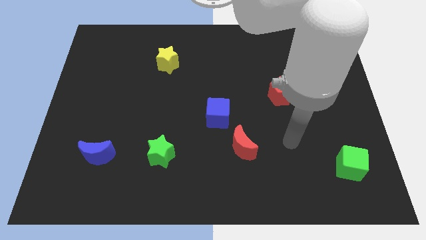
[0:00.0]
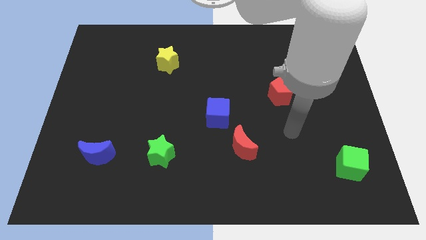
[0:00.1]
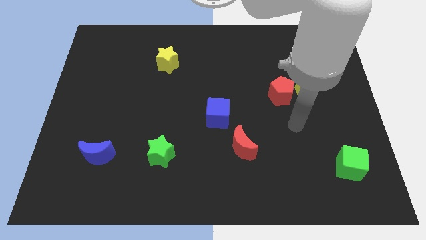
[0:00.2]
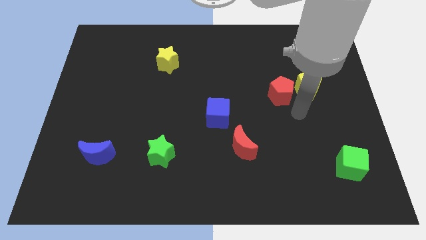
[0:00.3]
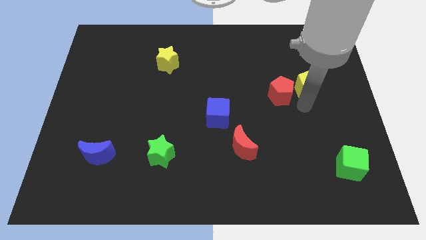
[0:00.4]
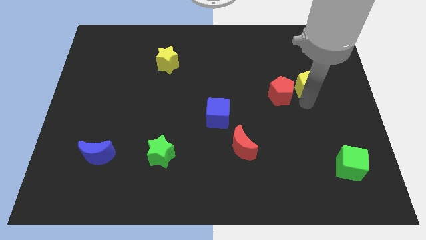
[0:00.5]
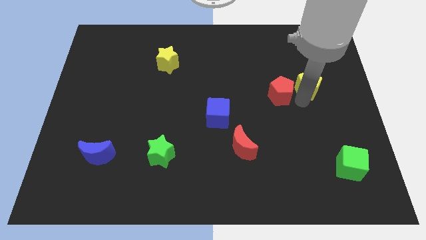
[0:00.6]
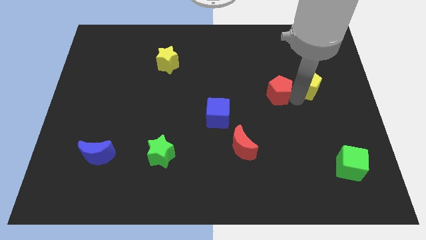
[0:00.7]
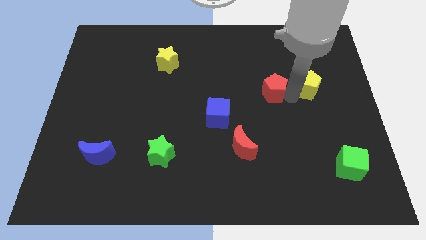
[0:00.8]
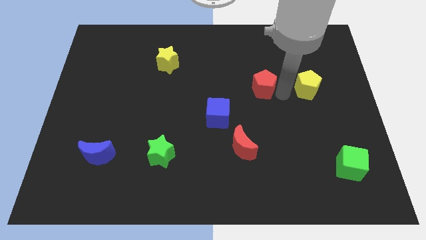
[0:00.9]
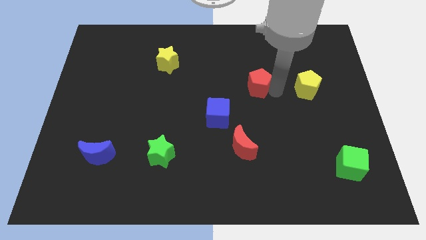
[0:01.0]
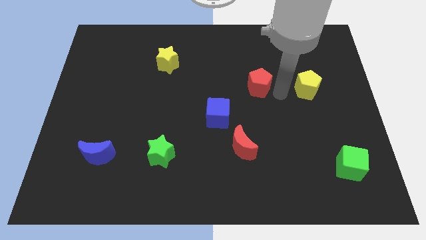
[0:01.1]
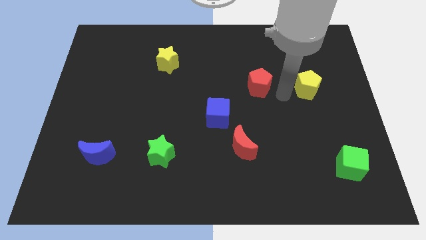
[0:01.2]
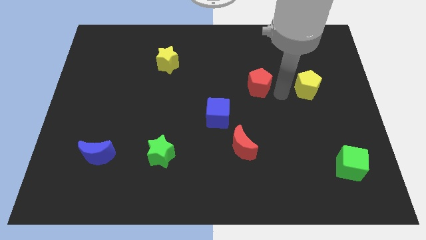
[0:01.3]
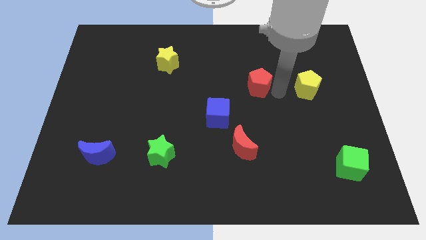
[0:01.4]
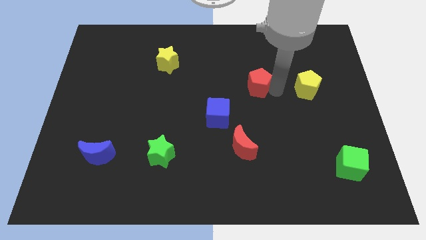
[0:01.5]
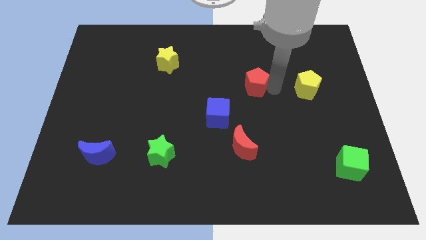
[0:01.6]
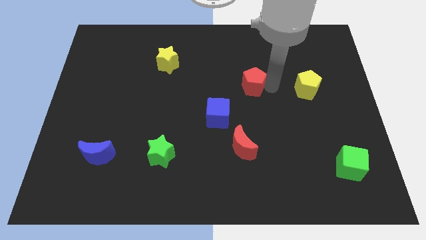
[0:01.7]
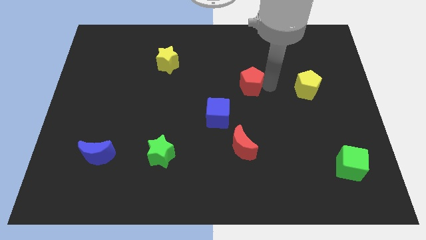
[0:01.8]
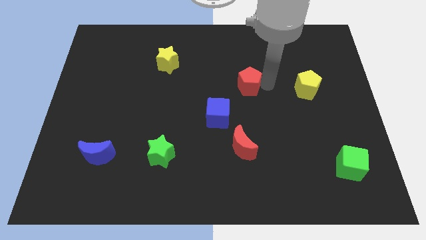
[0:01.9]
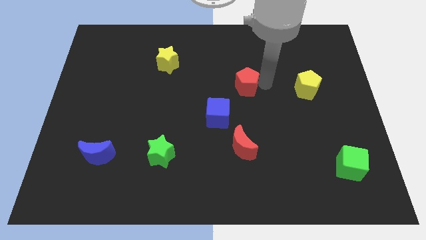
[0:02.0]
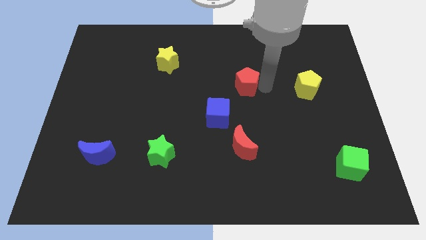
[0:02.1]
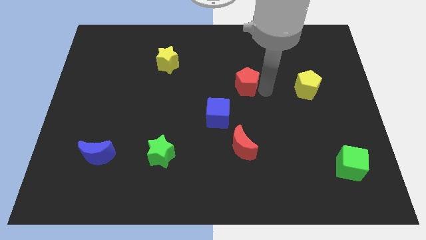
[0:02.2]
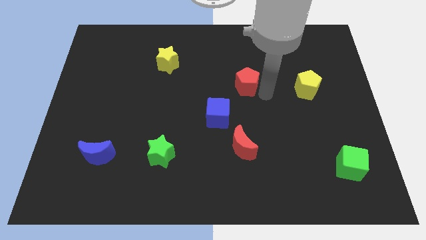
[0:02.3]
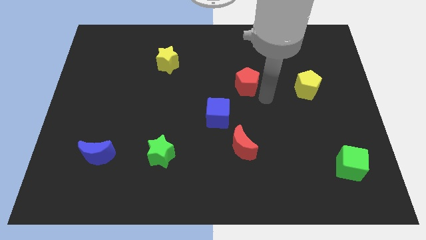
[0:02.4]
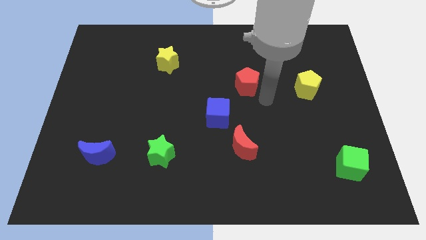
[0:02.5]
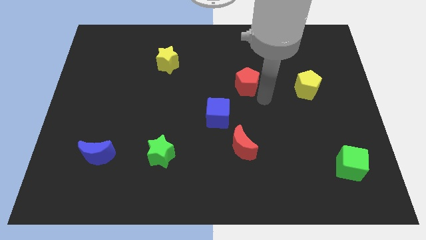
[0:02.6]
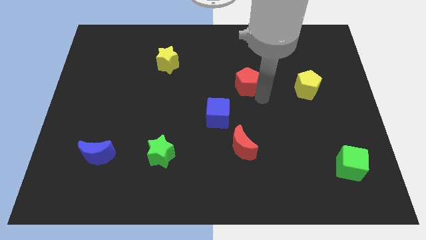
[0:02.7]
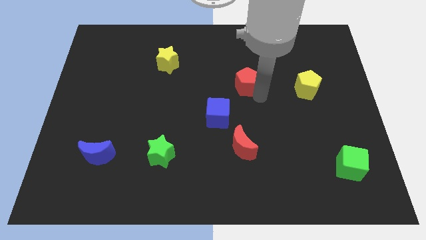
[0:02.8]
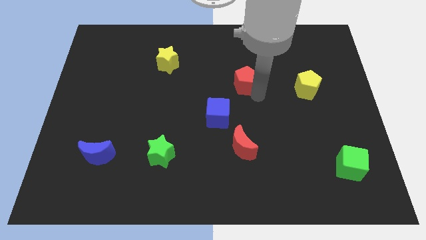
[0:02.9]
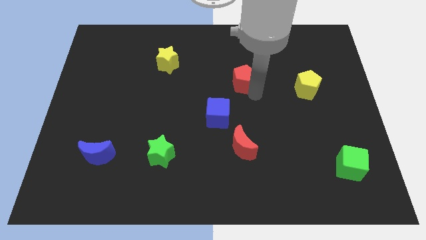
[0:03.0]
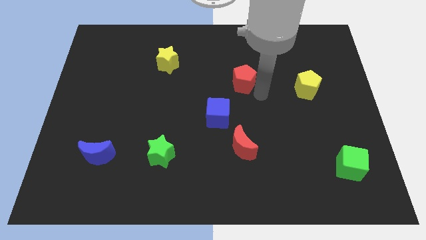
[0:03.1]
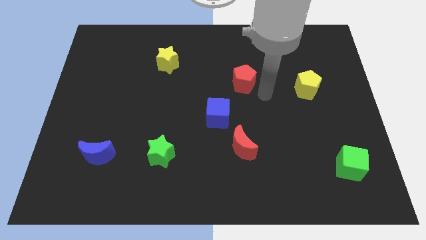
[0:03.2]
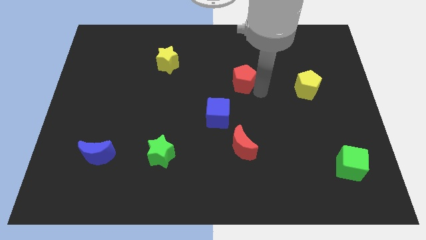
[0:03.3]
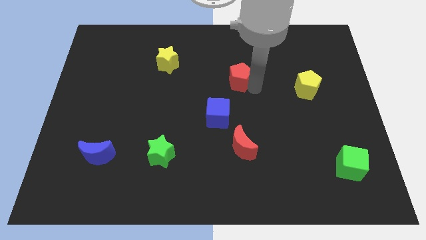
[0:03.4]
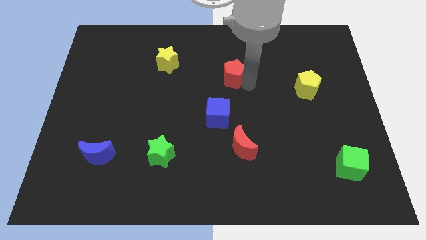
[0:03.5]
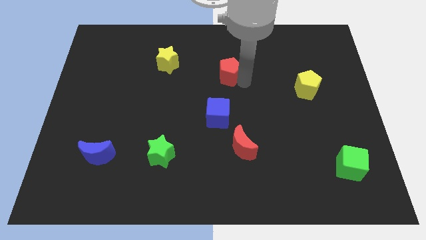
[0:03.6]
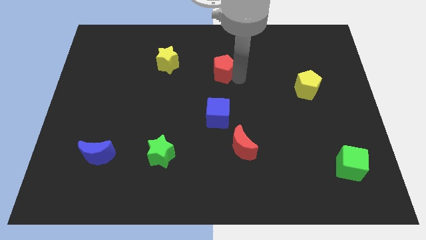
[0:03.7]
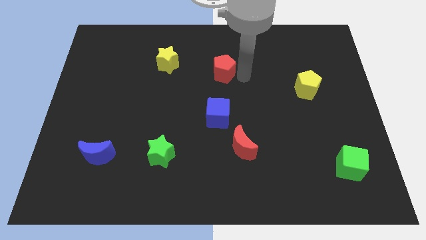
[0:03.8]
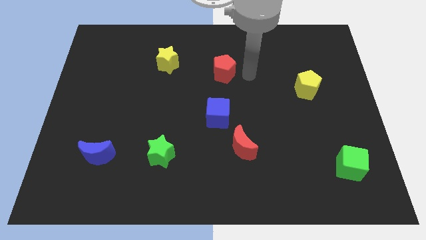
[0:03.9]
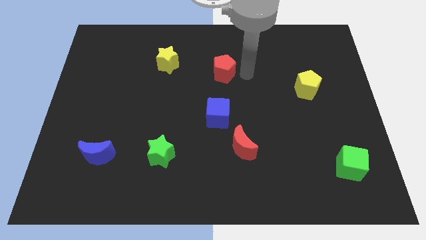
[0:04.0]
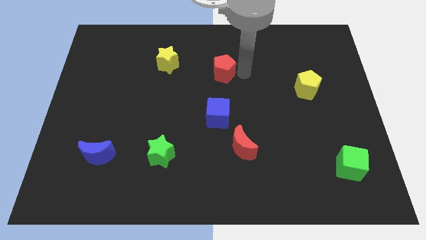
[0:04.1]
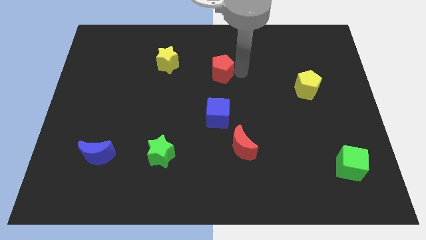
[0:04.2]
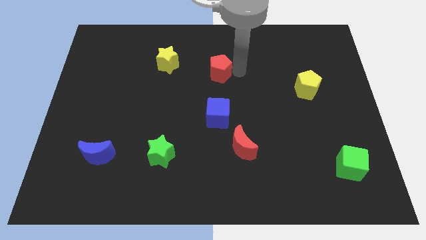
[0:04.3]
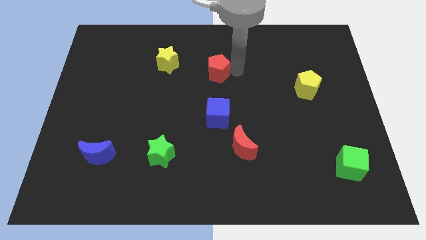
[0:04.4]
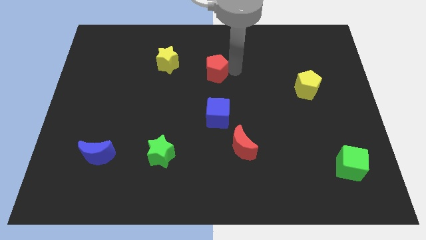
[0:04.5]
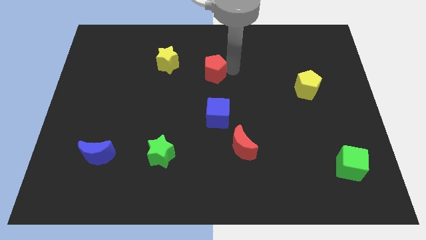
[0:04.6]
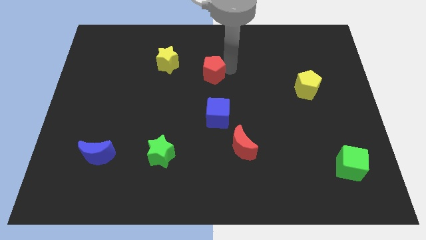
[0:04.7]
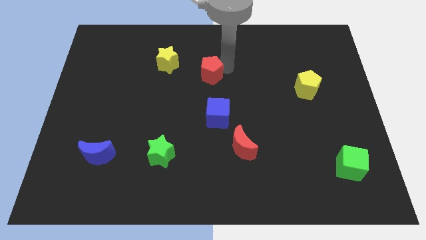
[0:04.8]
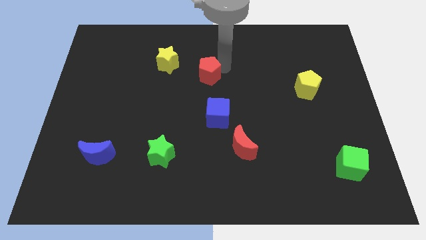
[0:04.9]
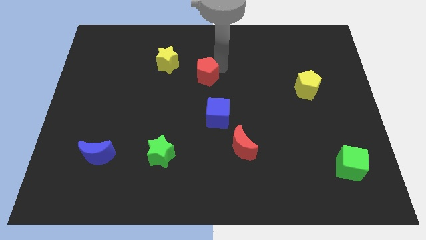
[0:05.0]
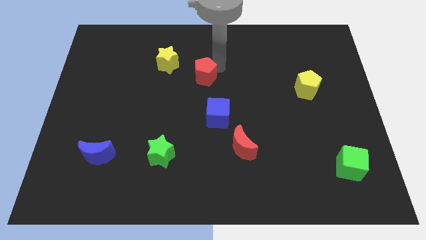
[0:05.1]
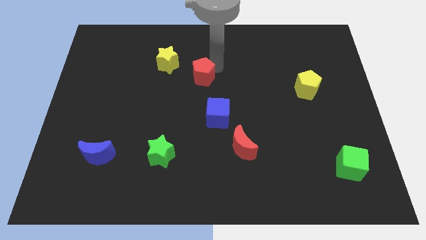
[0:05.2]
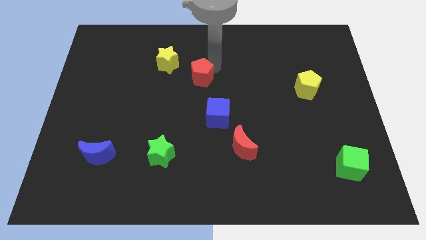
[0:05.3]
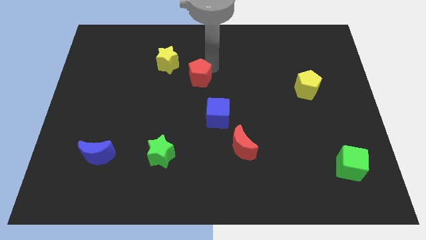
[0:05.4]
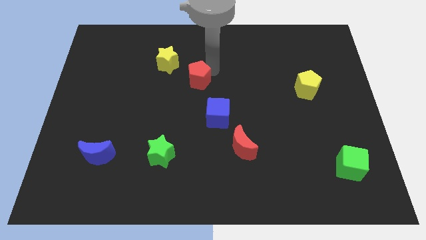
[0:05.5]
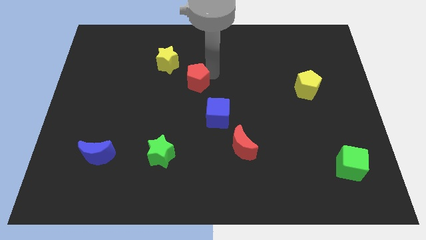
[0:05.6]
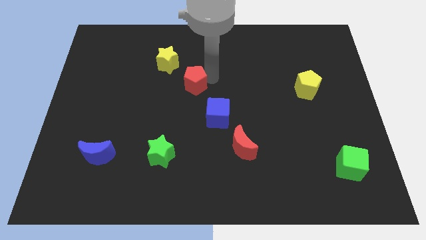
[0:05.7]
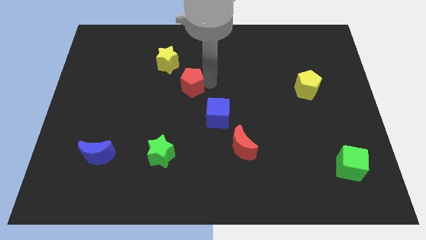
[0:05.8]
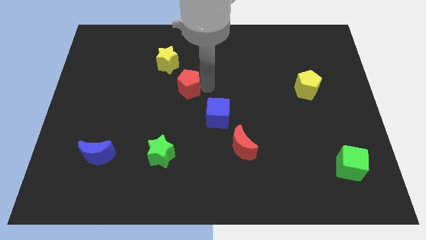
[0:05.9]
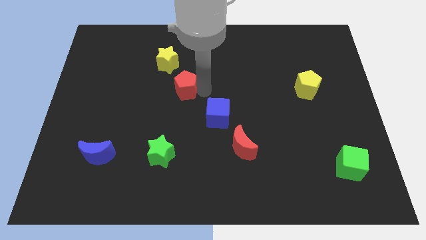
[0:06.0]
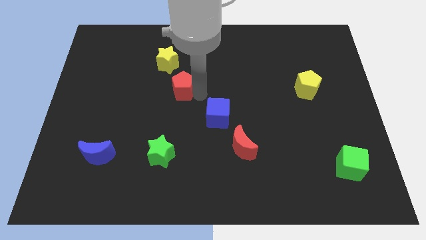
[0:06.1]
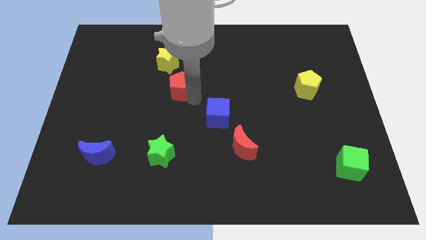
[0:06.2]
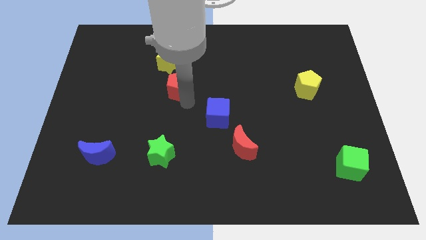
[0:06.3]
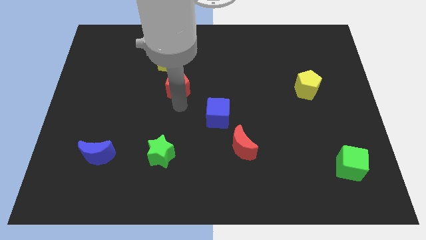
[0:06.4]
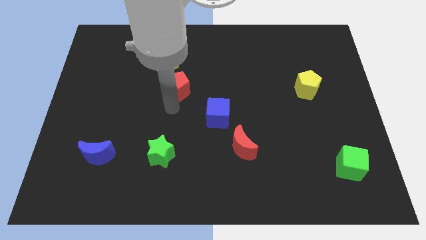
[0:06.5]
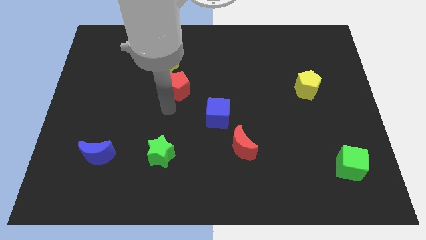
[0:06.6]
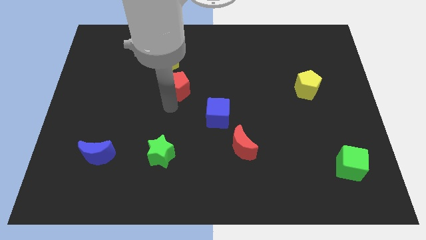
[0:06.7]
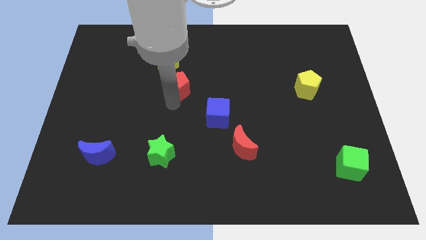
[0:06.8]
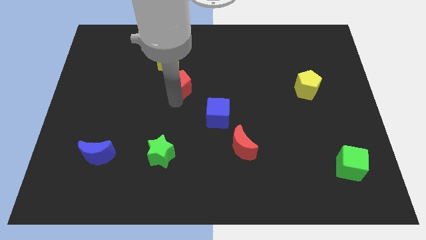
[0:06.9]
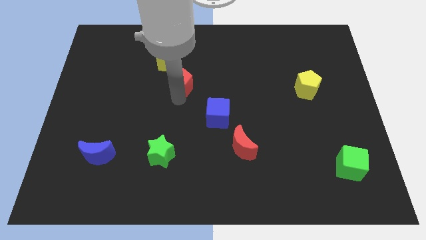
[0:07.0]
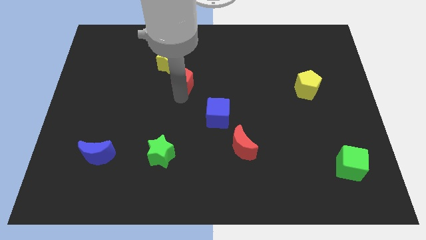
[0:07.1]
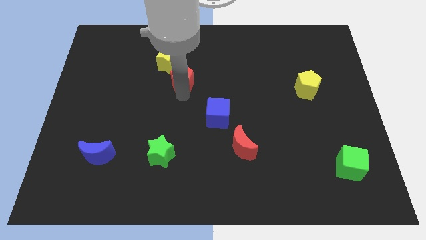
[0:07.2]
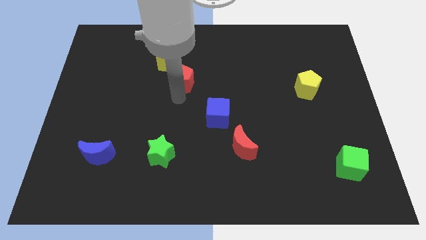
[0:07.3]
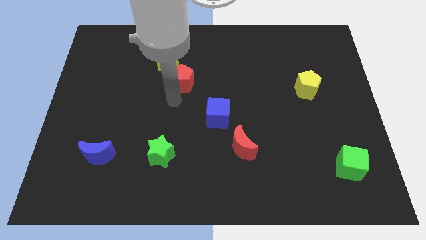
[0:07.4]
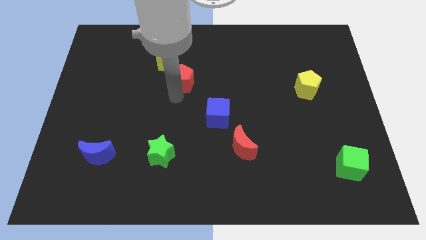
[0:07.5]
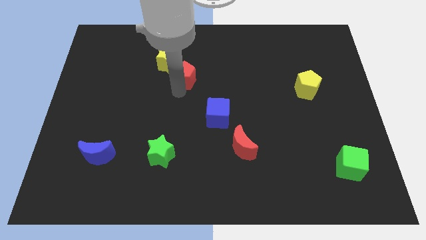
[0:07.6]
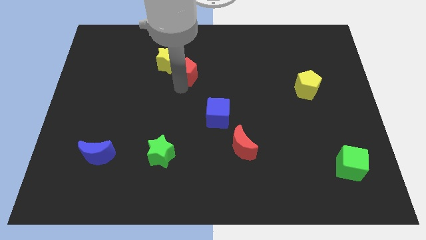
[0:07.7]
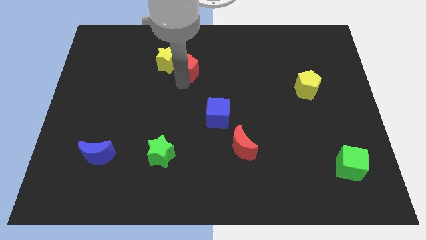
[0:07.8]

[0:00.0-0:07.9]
slide the red pentagon close to the yellow star
